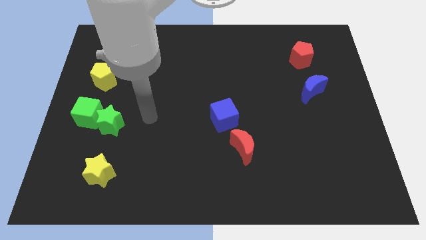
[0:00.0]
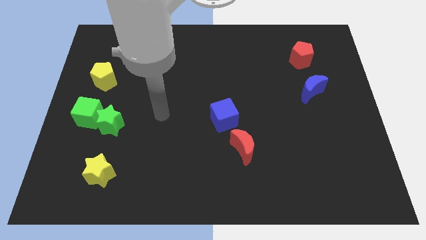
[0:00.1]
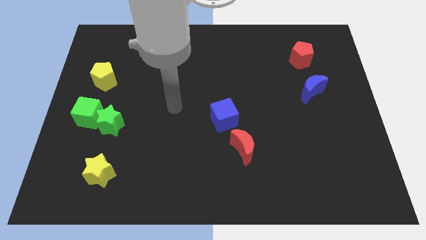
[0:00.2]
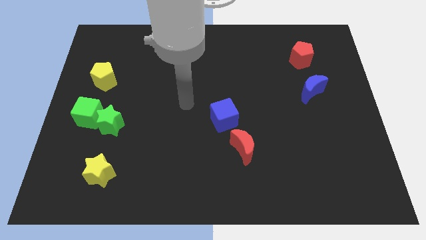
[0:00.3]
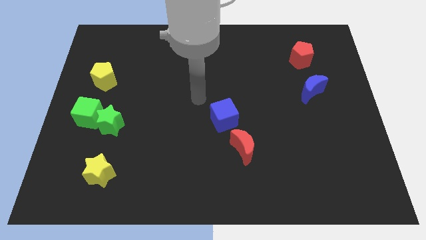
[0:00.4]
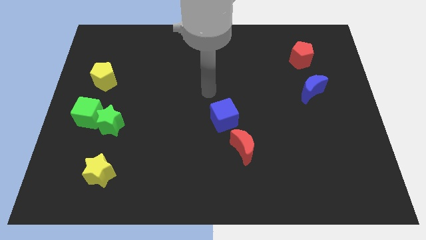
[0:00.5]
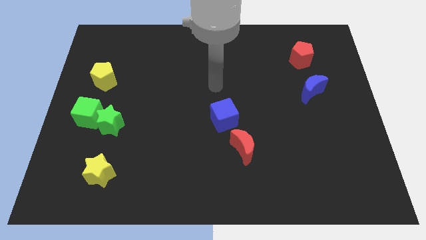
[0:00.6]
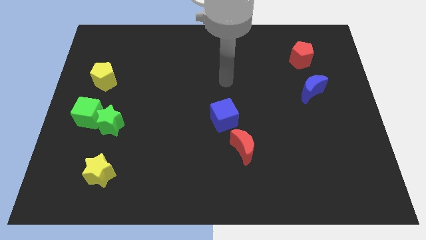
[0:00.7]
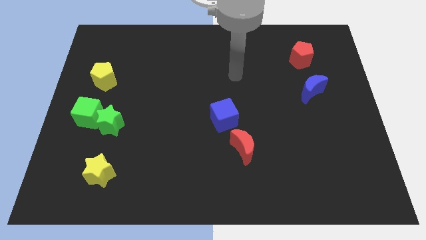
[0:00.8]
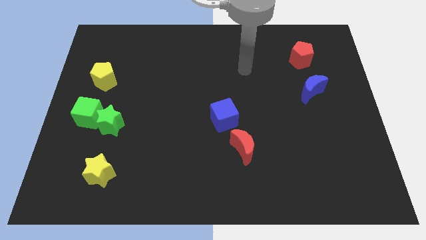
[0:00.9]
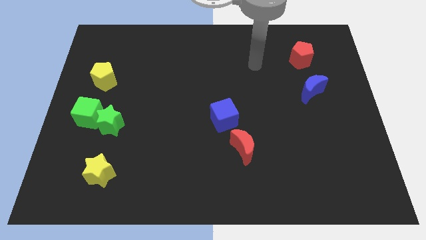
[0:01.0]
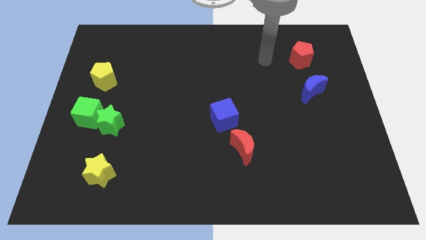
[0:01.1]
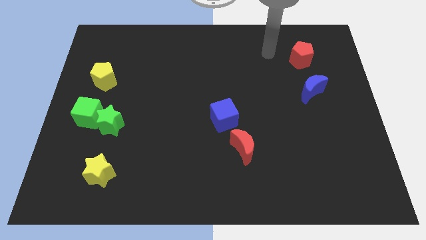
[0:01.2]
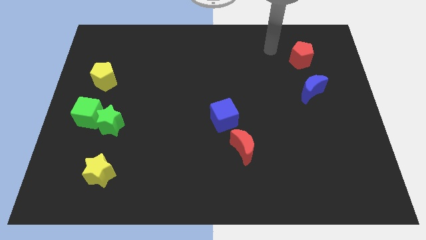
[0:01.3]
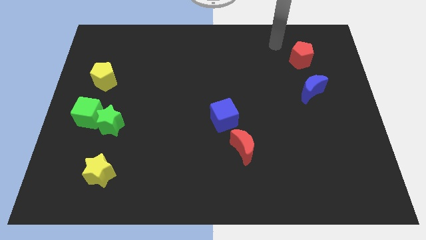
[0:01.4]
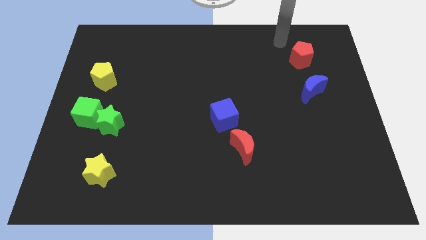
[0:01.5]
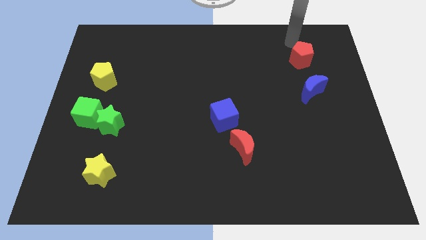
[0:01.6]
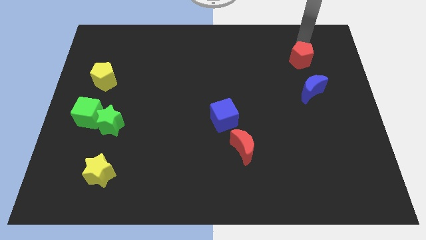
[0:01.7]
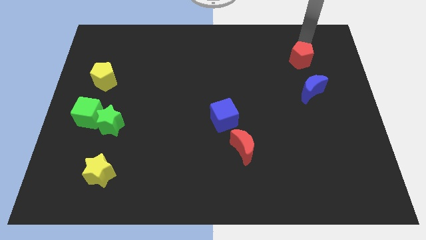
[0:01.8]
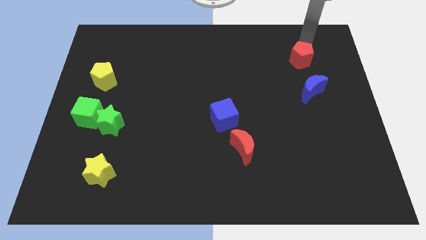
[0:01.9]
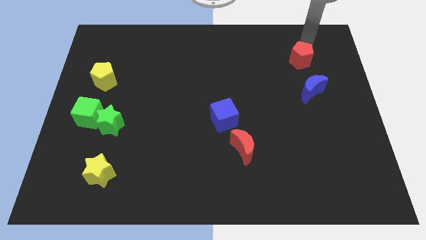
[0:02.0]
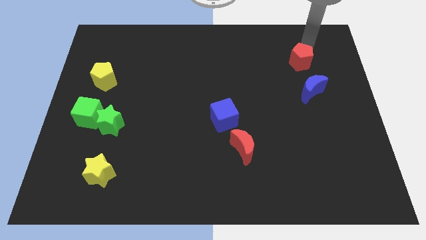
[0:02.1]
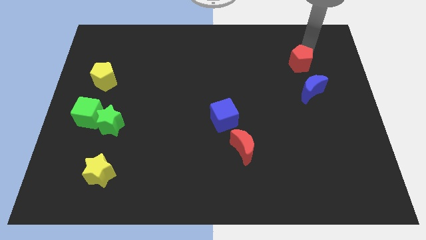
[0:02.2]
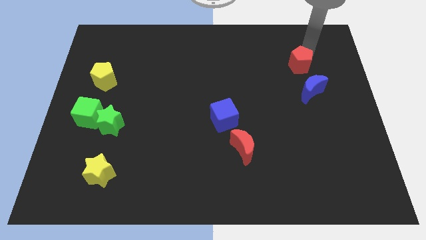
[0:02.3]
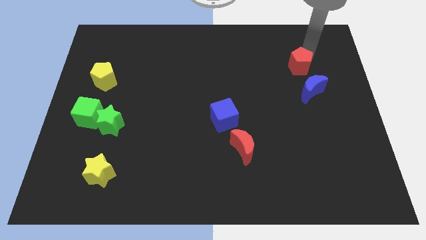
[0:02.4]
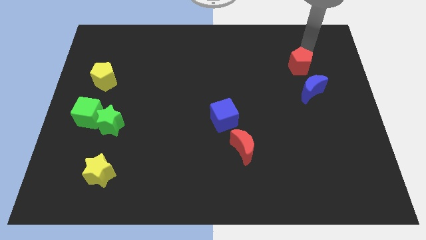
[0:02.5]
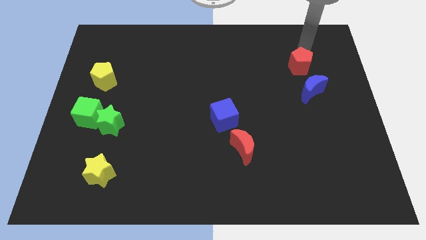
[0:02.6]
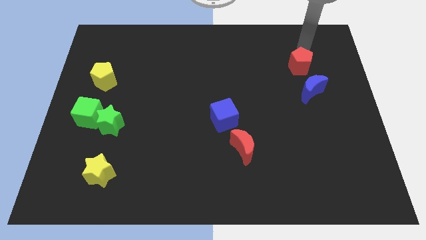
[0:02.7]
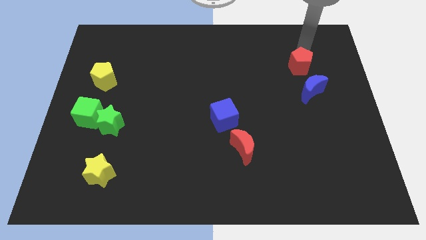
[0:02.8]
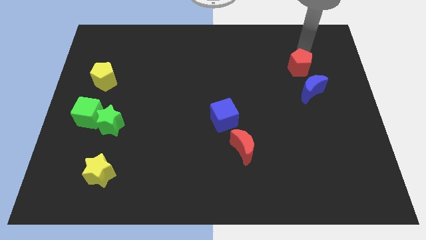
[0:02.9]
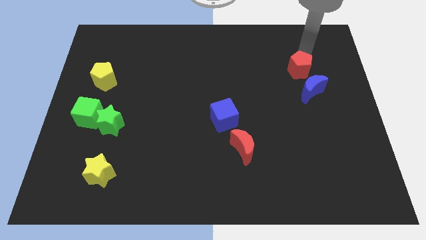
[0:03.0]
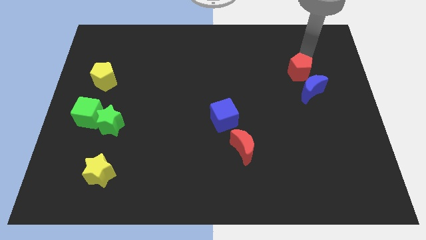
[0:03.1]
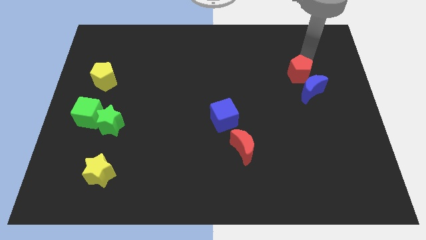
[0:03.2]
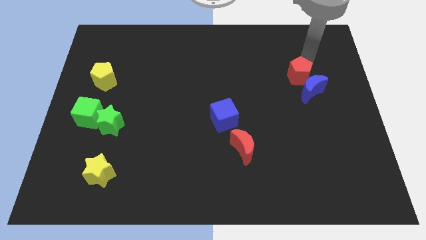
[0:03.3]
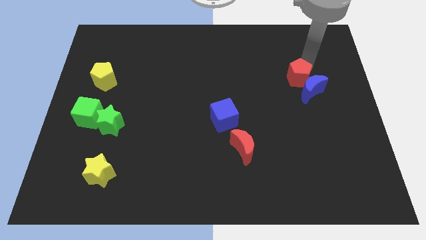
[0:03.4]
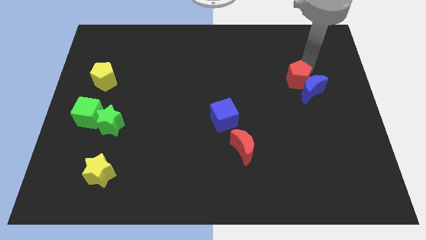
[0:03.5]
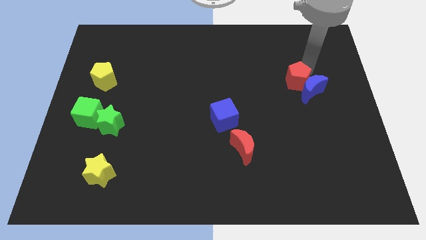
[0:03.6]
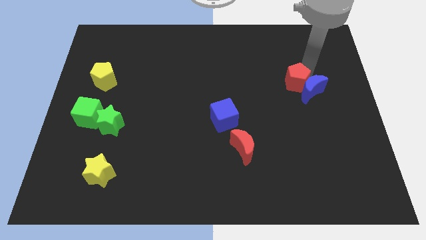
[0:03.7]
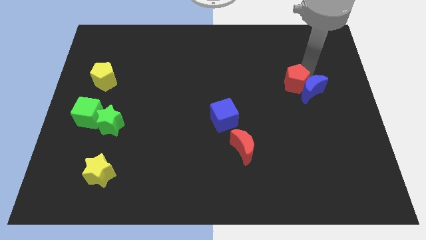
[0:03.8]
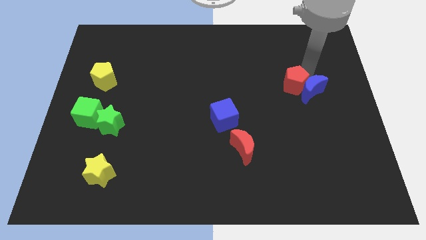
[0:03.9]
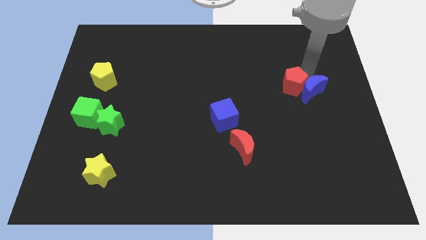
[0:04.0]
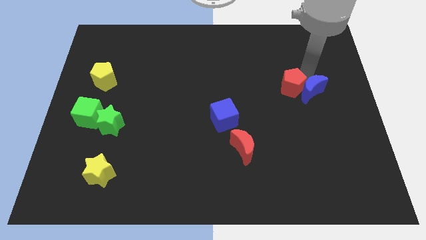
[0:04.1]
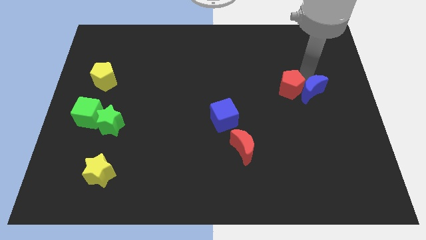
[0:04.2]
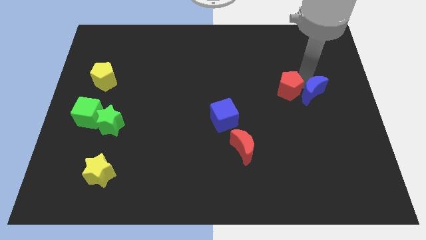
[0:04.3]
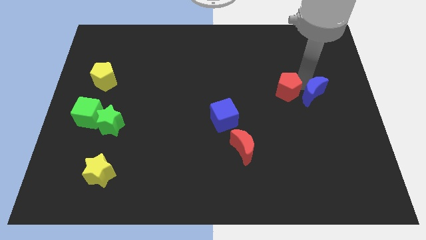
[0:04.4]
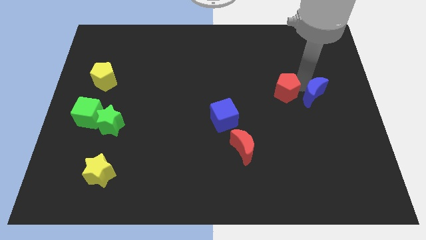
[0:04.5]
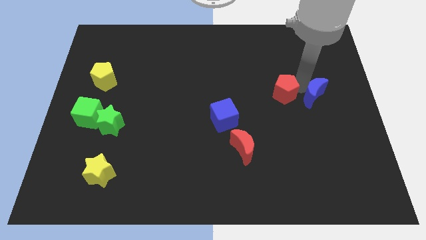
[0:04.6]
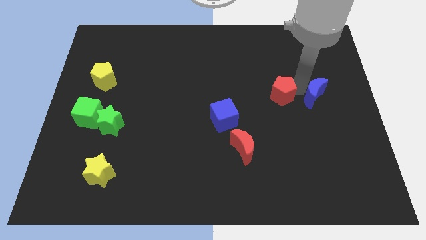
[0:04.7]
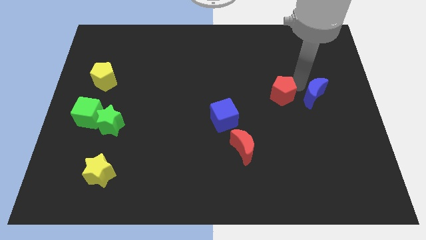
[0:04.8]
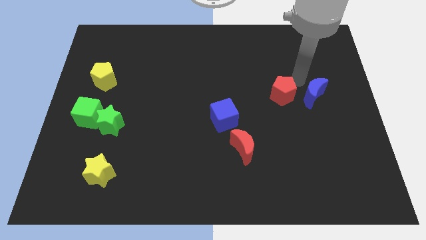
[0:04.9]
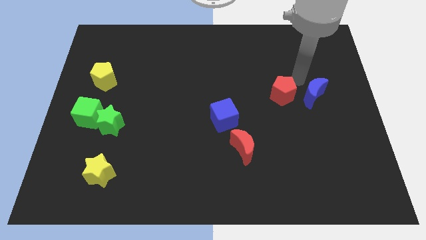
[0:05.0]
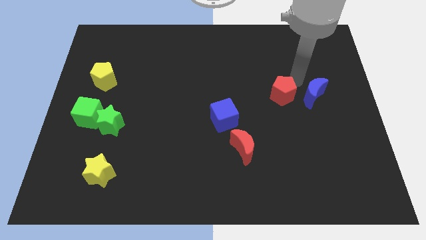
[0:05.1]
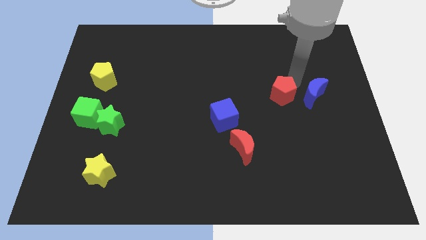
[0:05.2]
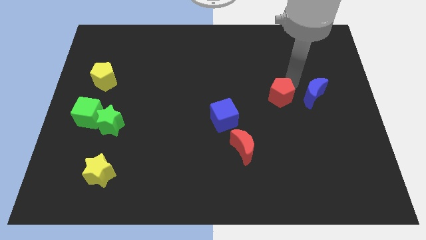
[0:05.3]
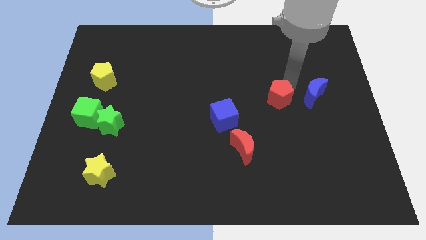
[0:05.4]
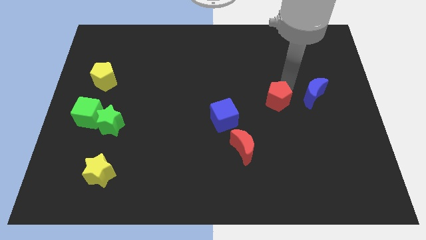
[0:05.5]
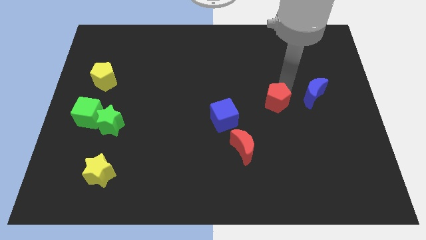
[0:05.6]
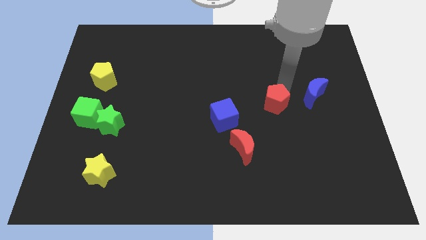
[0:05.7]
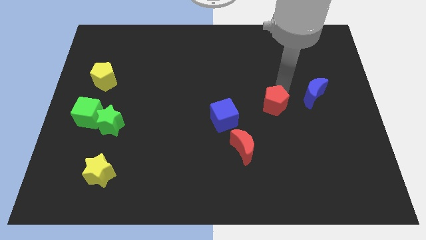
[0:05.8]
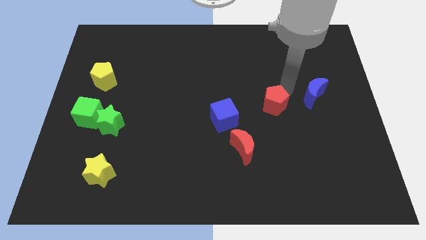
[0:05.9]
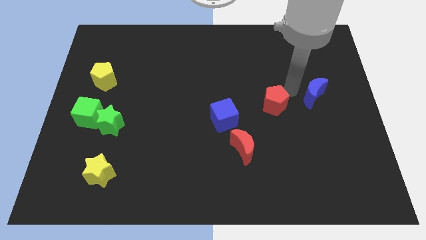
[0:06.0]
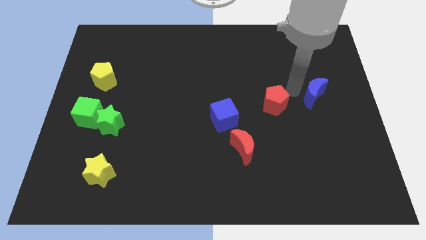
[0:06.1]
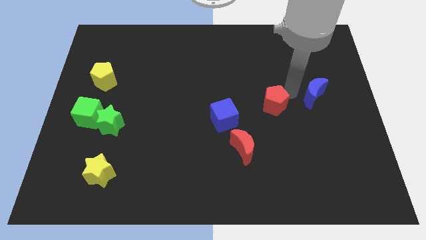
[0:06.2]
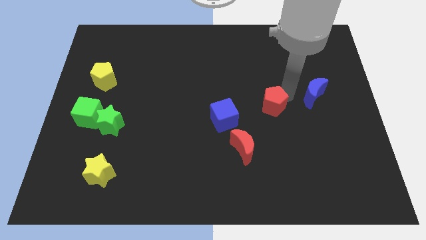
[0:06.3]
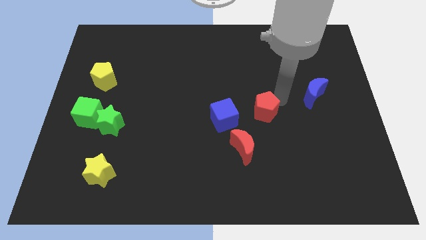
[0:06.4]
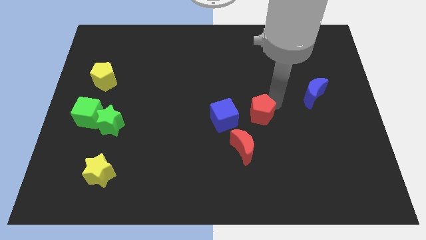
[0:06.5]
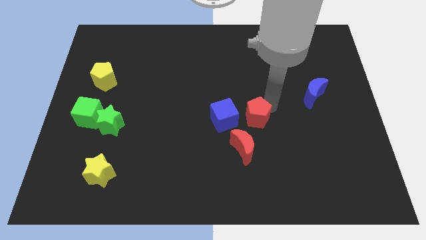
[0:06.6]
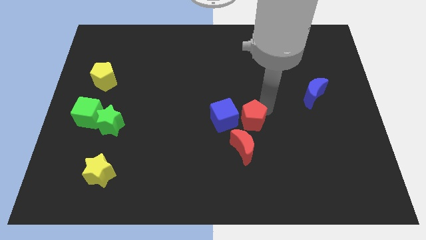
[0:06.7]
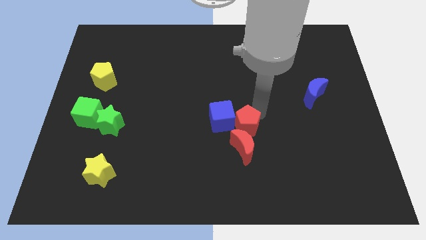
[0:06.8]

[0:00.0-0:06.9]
put the red pentagon close to the red moon

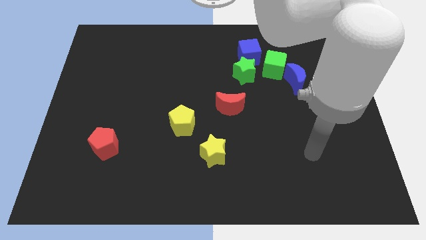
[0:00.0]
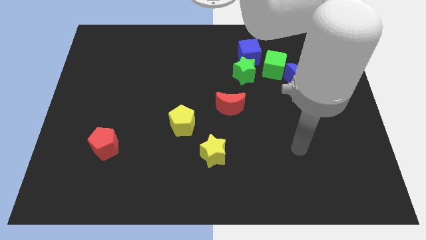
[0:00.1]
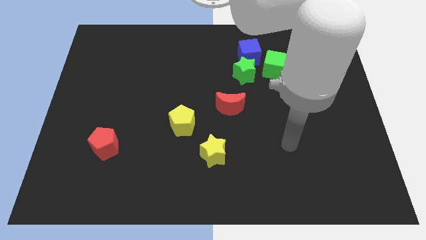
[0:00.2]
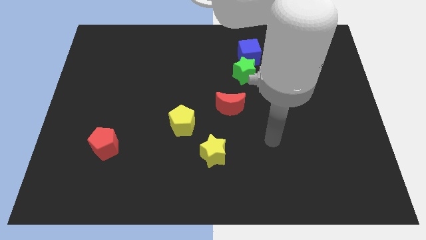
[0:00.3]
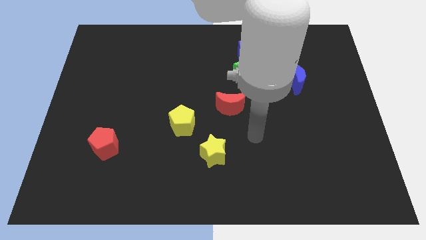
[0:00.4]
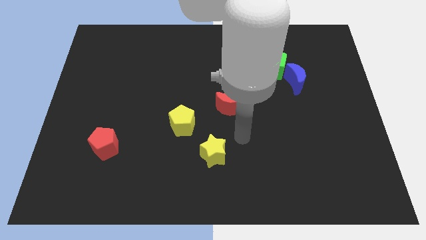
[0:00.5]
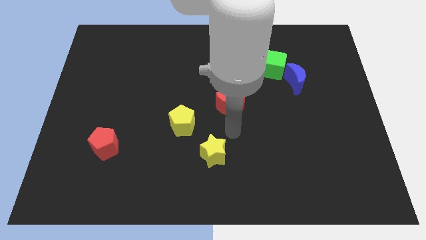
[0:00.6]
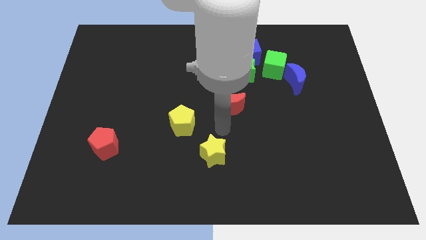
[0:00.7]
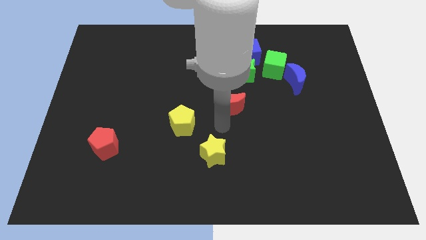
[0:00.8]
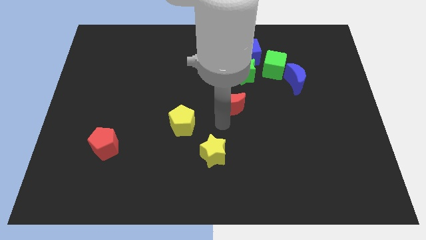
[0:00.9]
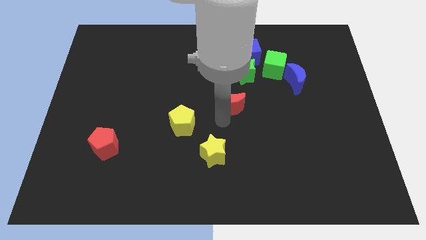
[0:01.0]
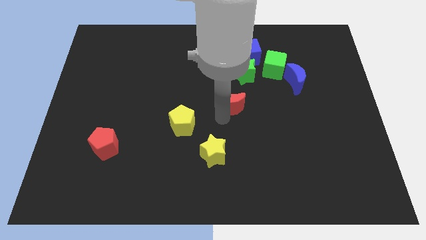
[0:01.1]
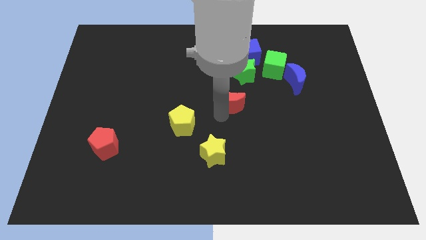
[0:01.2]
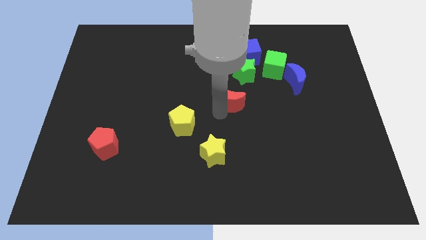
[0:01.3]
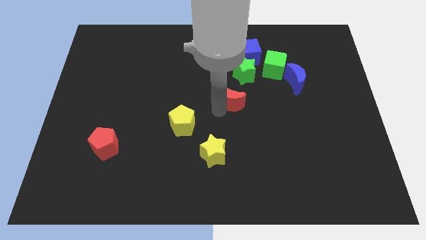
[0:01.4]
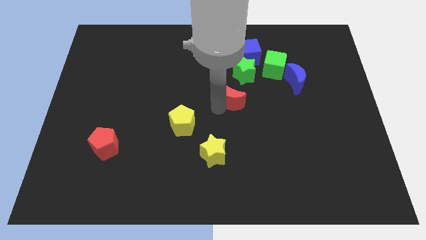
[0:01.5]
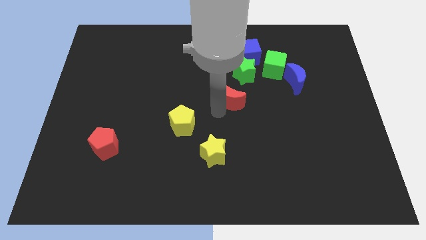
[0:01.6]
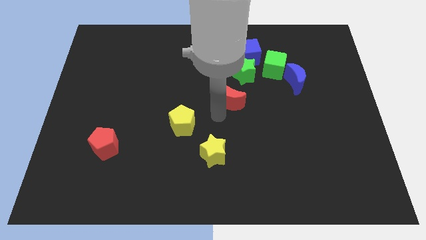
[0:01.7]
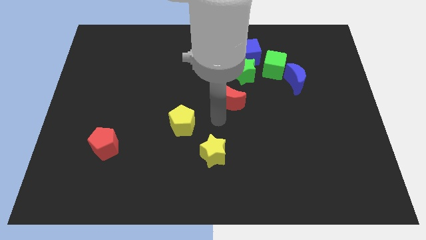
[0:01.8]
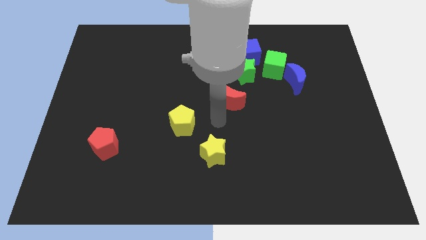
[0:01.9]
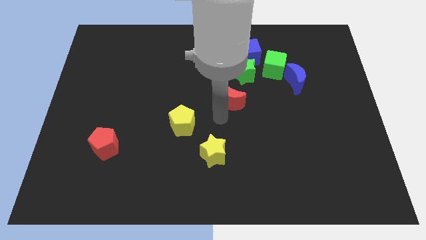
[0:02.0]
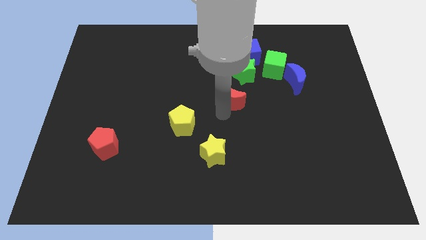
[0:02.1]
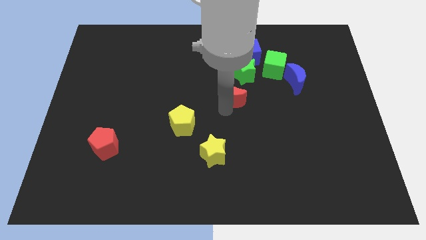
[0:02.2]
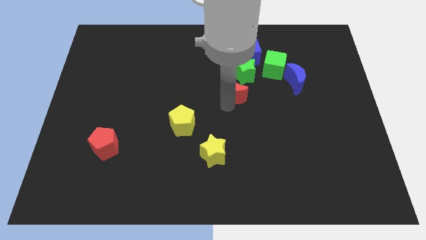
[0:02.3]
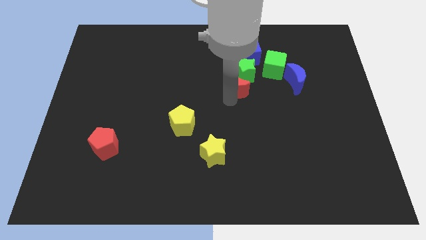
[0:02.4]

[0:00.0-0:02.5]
move the red moon close to the green star
